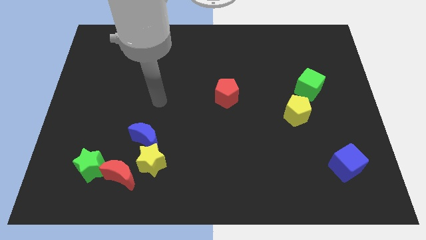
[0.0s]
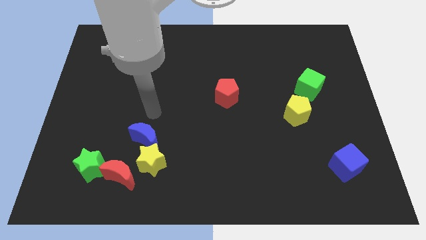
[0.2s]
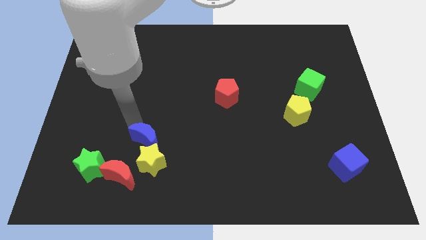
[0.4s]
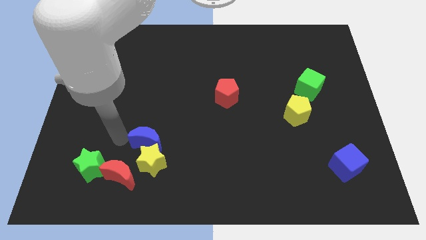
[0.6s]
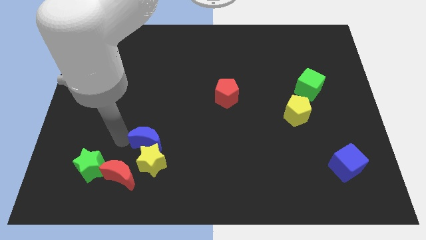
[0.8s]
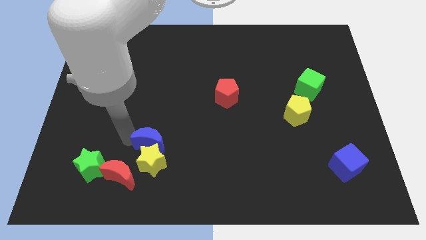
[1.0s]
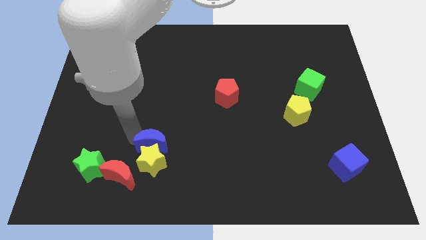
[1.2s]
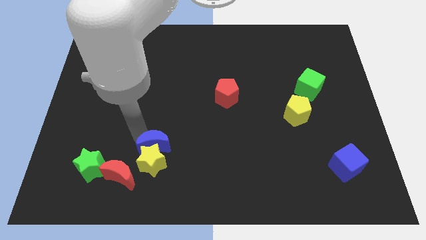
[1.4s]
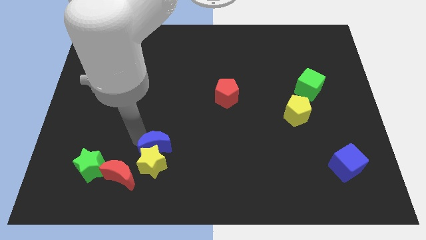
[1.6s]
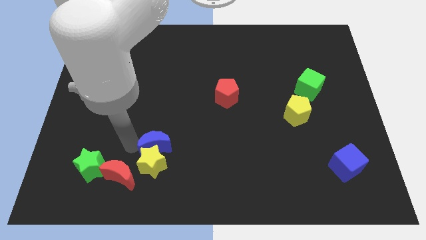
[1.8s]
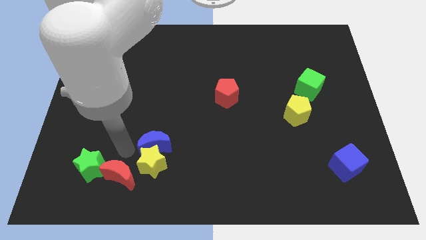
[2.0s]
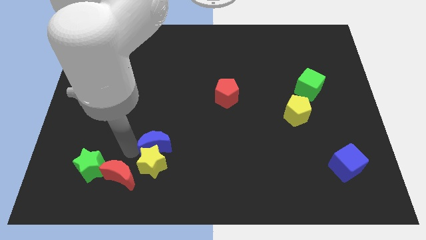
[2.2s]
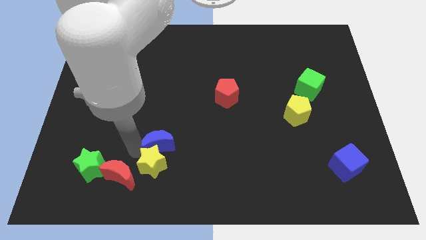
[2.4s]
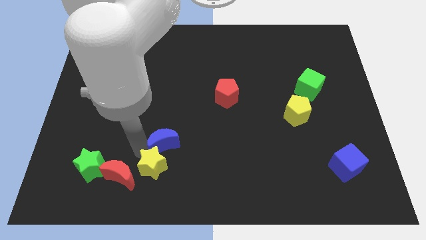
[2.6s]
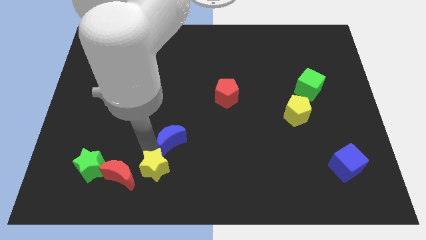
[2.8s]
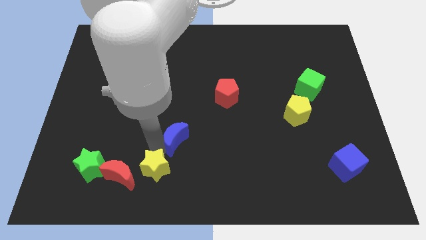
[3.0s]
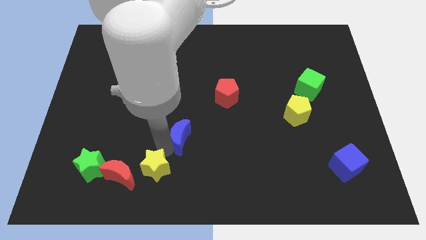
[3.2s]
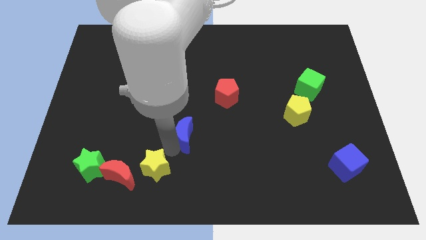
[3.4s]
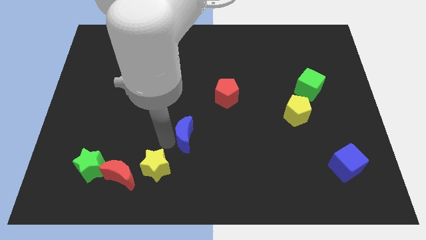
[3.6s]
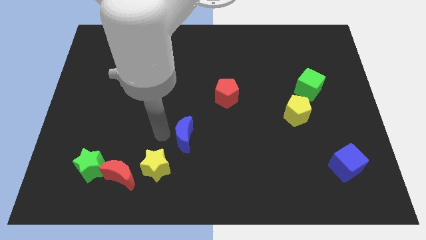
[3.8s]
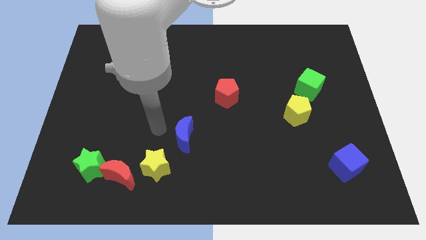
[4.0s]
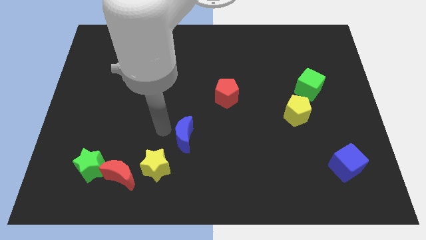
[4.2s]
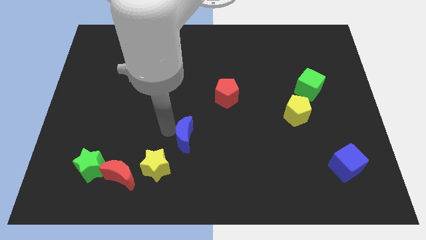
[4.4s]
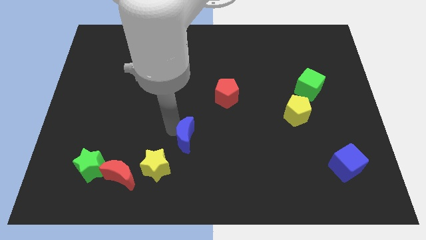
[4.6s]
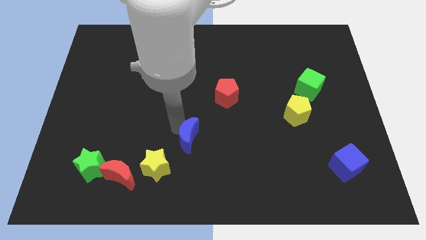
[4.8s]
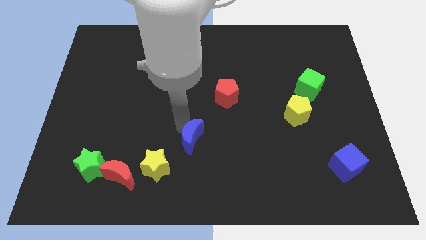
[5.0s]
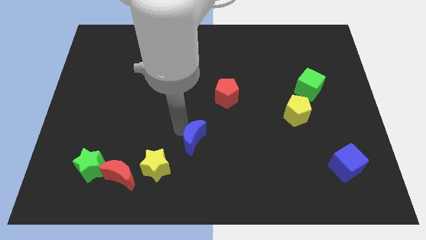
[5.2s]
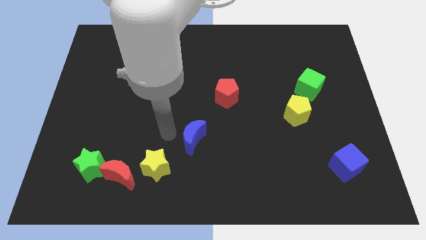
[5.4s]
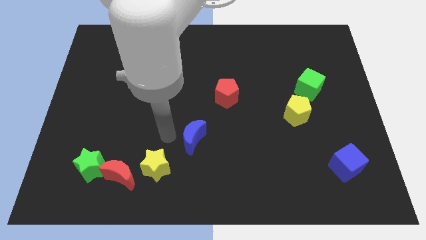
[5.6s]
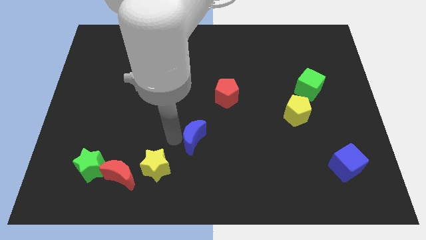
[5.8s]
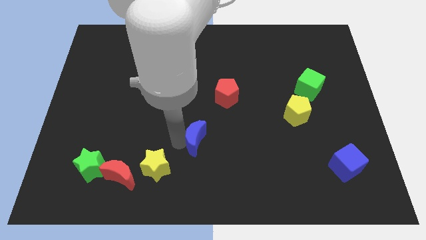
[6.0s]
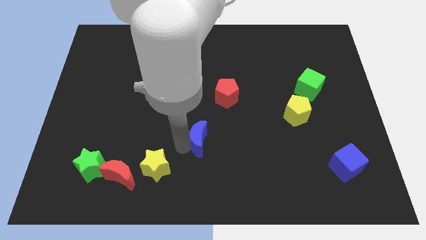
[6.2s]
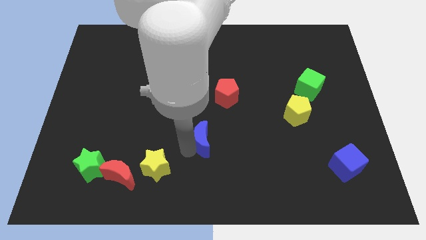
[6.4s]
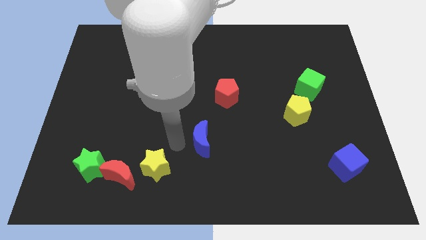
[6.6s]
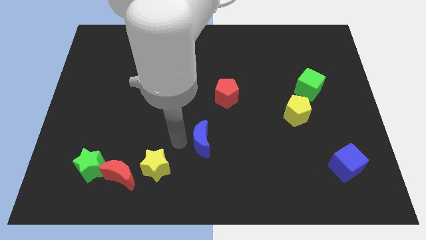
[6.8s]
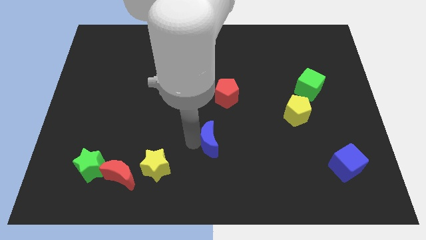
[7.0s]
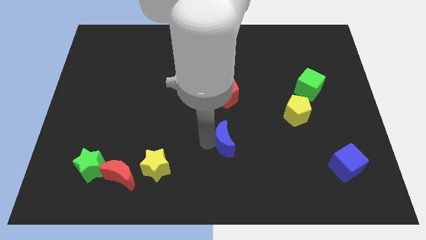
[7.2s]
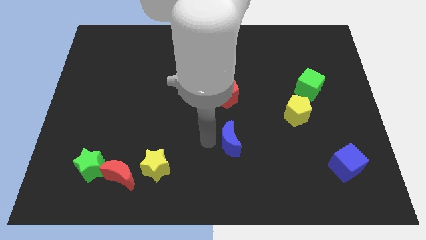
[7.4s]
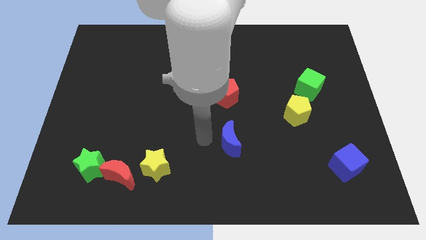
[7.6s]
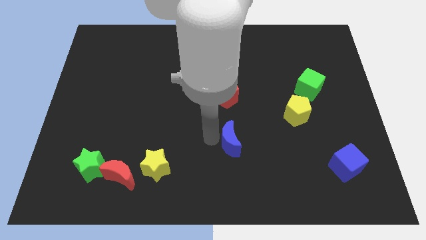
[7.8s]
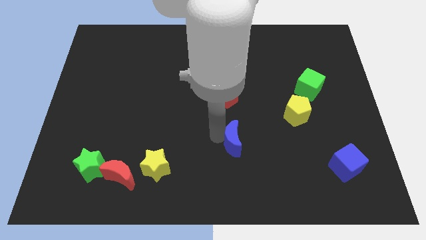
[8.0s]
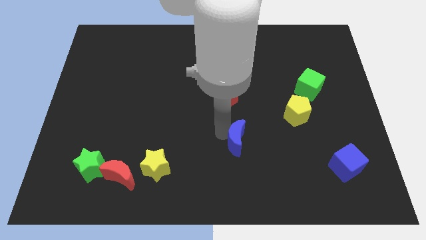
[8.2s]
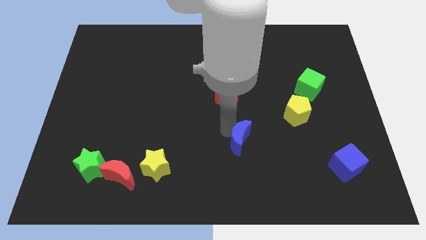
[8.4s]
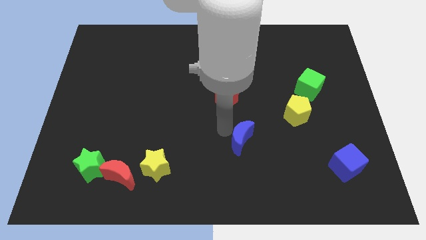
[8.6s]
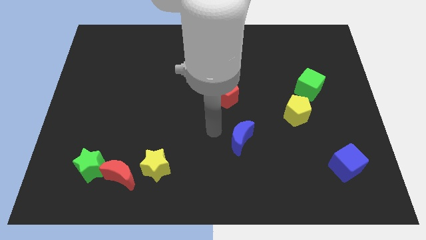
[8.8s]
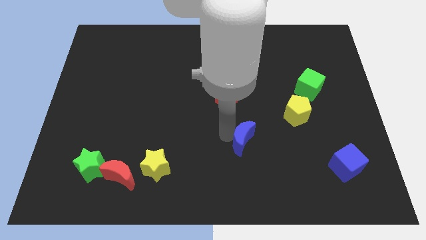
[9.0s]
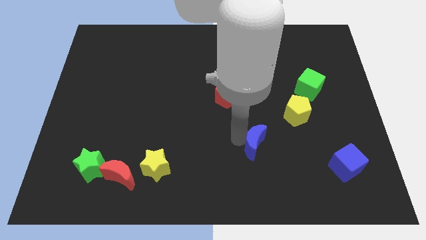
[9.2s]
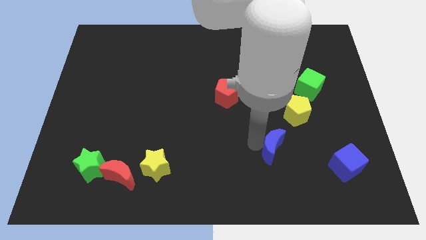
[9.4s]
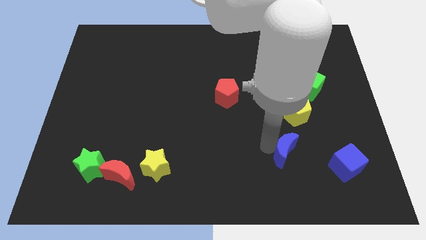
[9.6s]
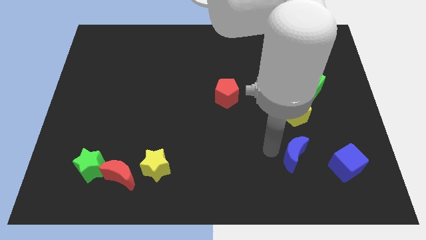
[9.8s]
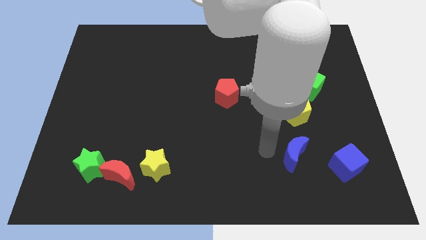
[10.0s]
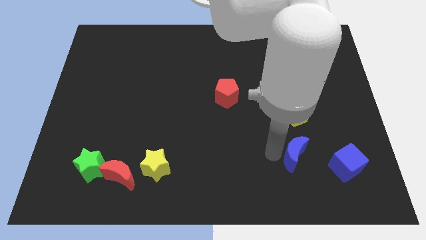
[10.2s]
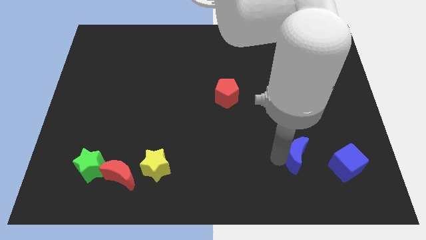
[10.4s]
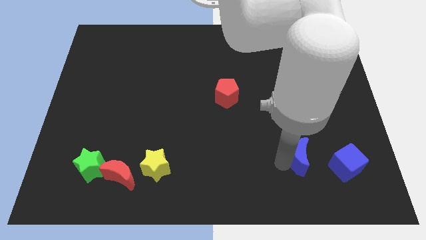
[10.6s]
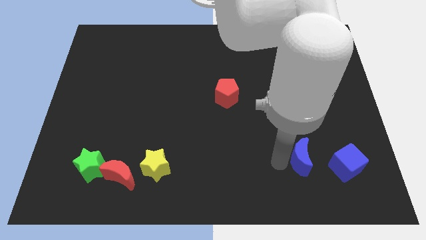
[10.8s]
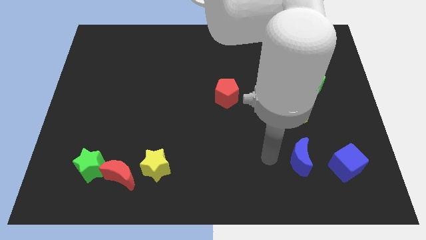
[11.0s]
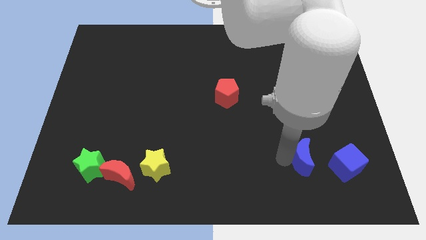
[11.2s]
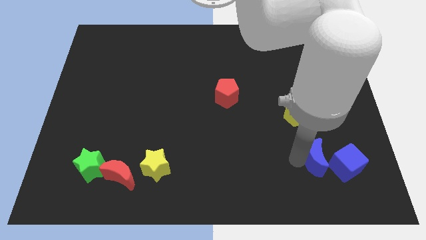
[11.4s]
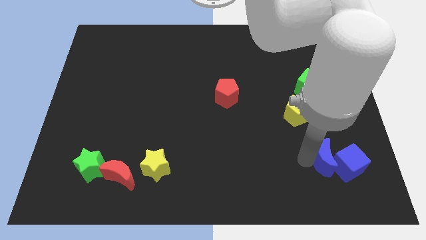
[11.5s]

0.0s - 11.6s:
put the blue moon next to the blue cube

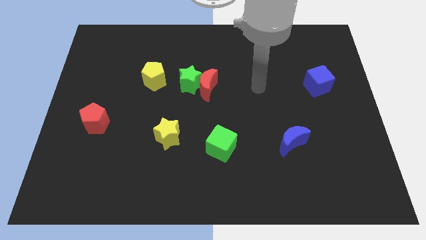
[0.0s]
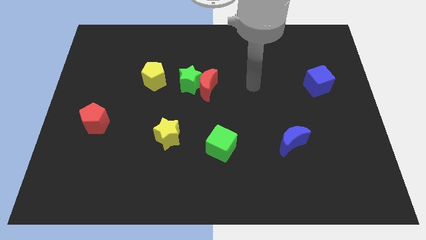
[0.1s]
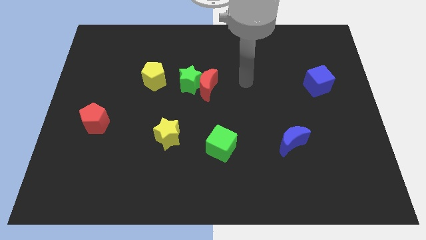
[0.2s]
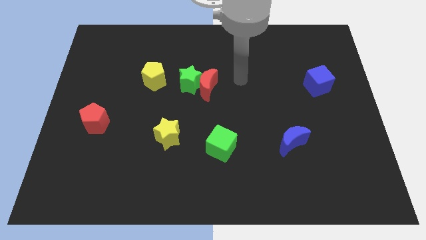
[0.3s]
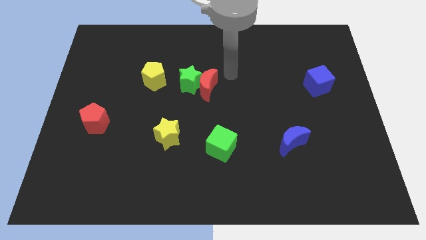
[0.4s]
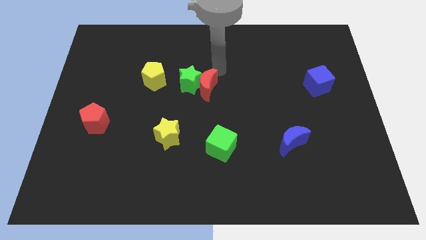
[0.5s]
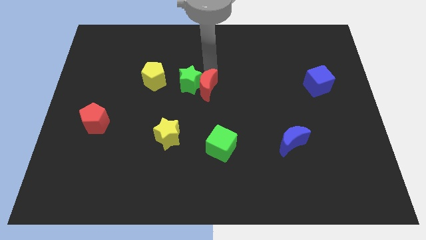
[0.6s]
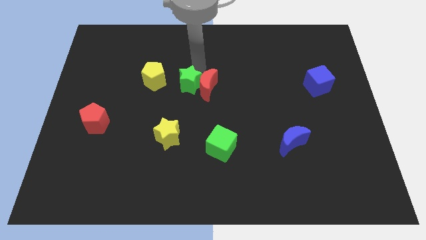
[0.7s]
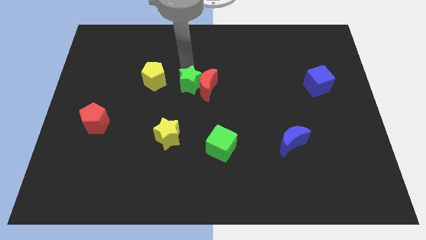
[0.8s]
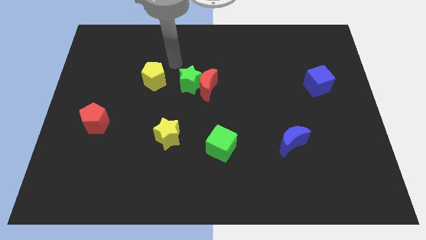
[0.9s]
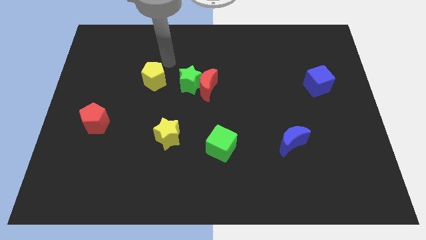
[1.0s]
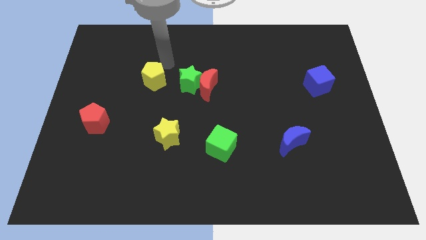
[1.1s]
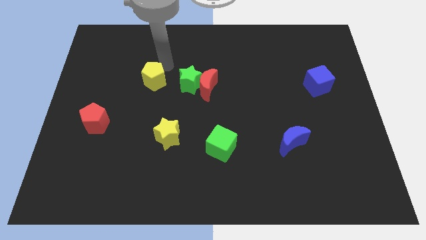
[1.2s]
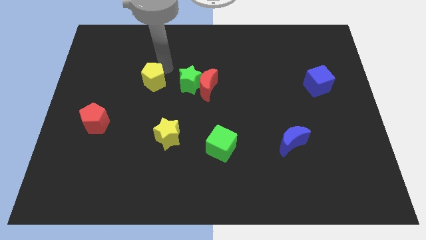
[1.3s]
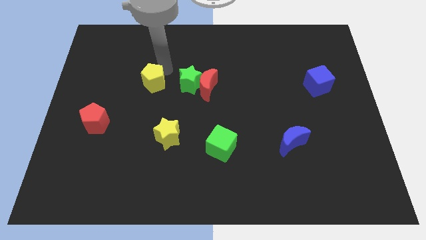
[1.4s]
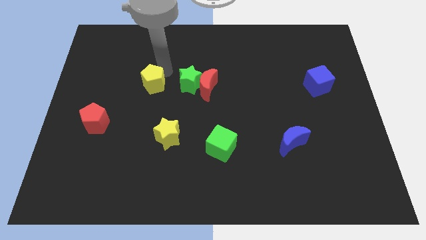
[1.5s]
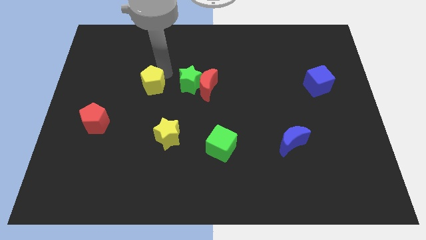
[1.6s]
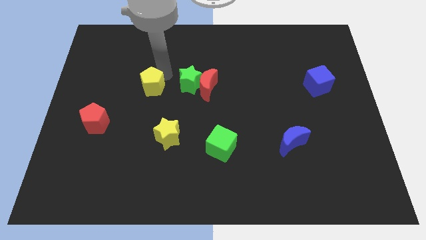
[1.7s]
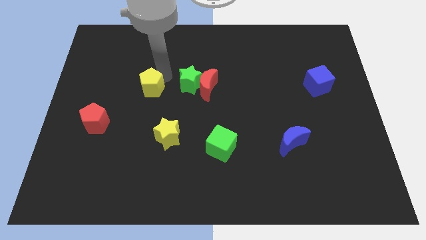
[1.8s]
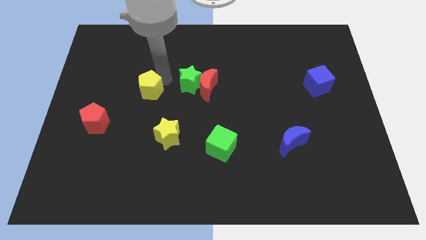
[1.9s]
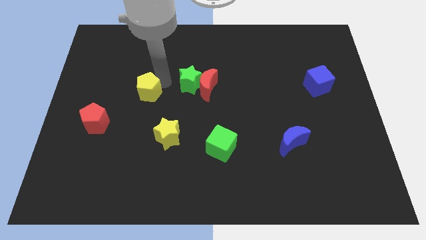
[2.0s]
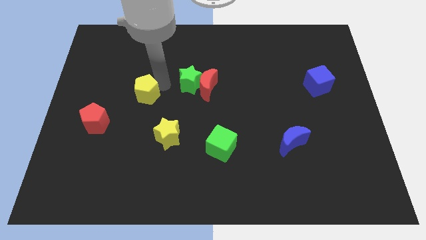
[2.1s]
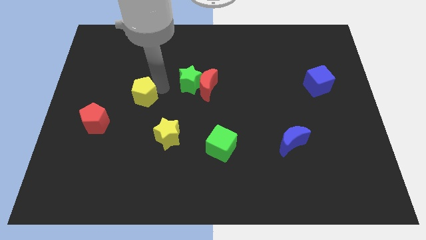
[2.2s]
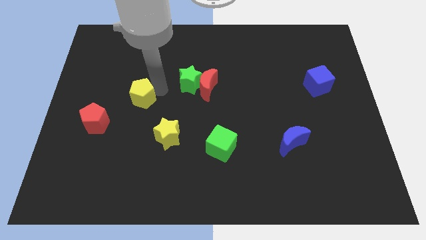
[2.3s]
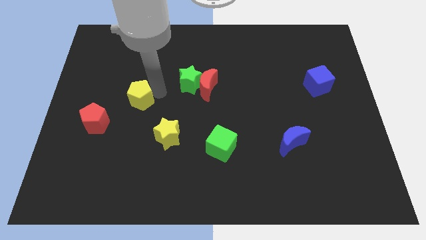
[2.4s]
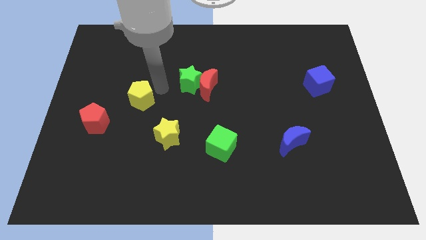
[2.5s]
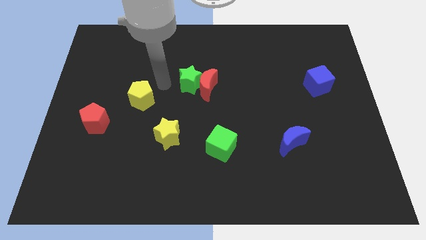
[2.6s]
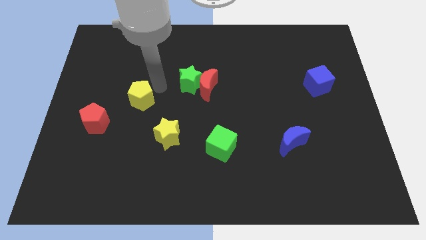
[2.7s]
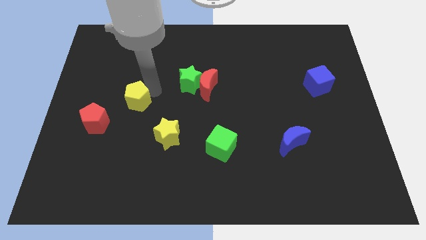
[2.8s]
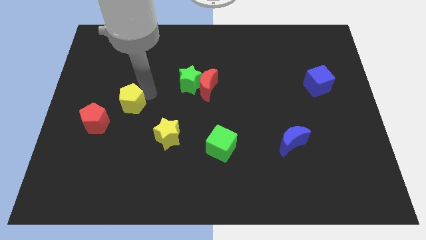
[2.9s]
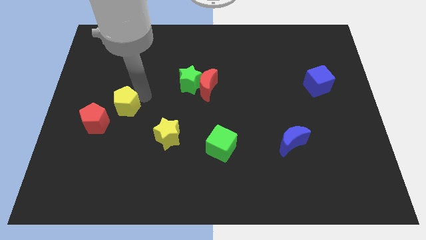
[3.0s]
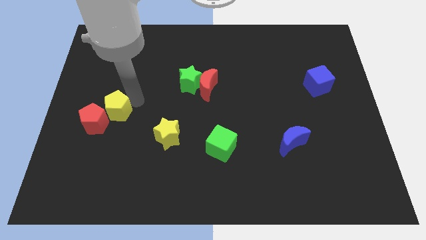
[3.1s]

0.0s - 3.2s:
move the yellow pentagon to the red pentagon
